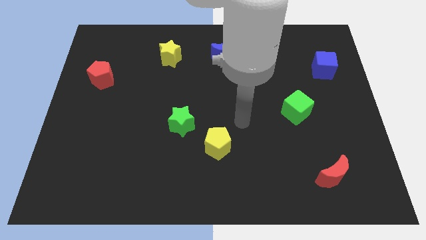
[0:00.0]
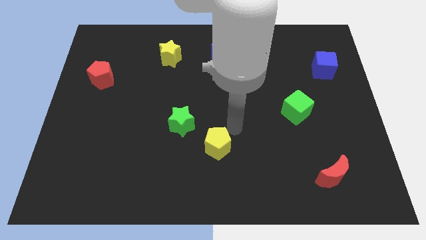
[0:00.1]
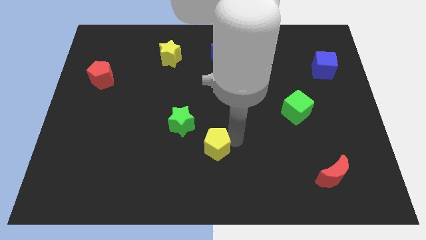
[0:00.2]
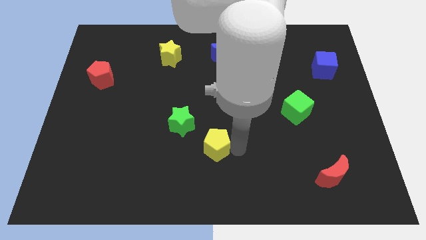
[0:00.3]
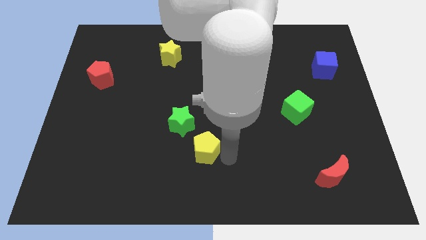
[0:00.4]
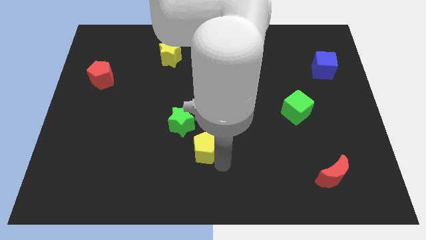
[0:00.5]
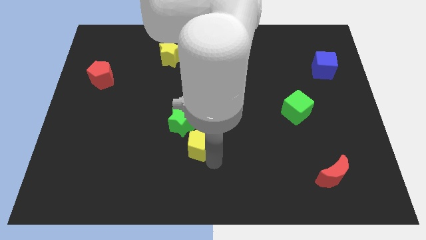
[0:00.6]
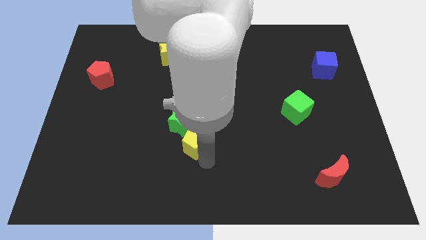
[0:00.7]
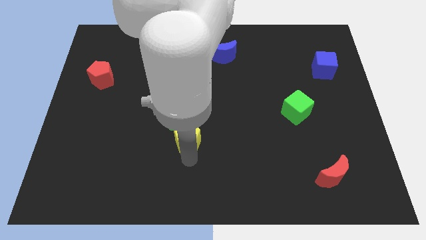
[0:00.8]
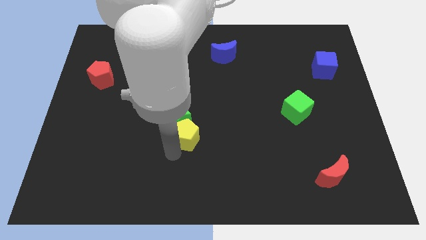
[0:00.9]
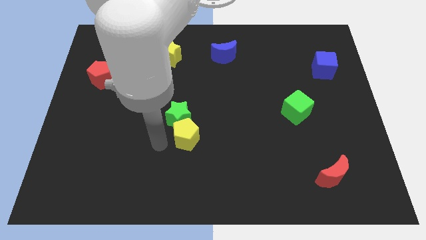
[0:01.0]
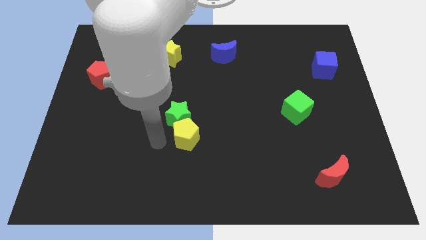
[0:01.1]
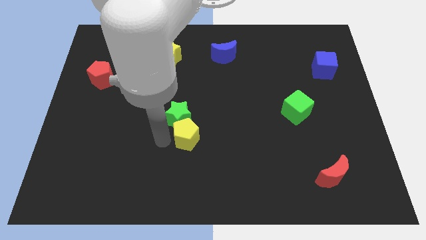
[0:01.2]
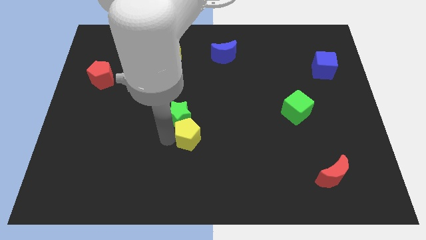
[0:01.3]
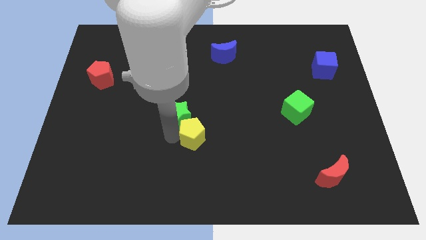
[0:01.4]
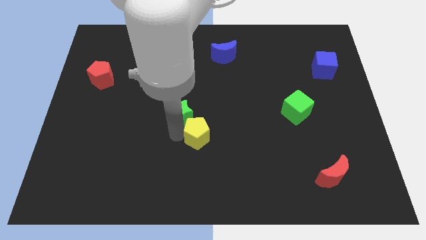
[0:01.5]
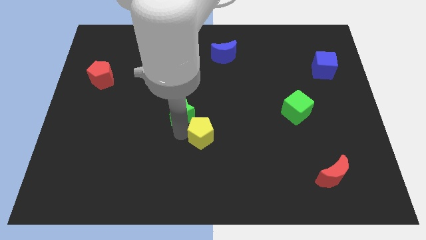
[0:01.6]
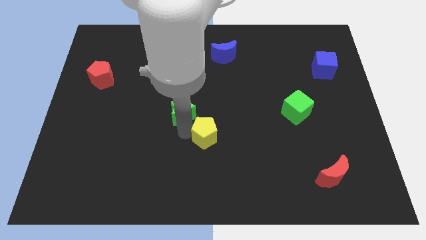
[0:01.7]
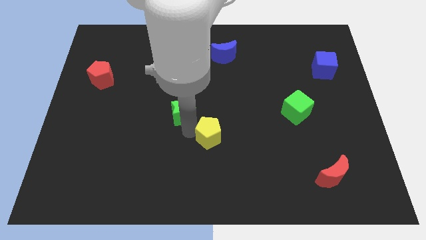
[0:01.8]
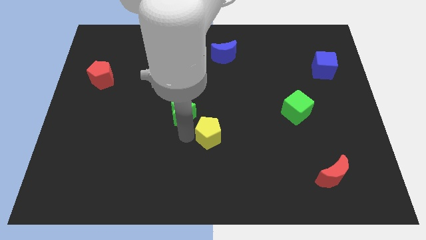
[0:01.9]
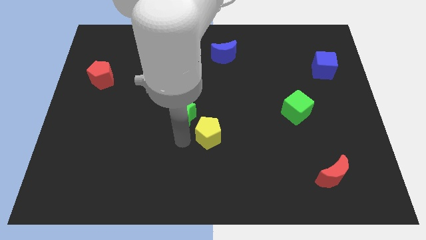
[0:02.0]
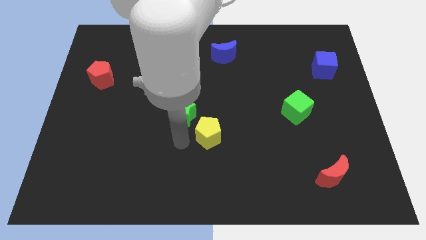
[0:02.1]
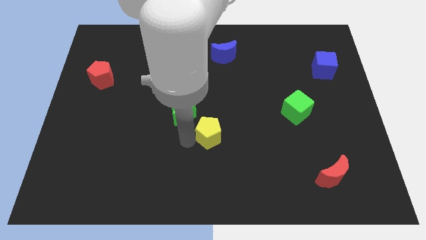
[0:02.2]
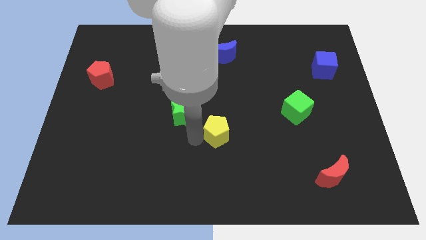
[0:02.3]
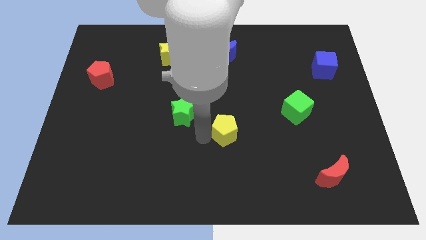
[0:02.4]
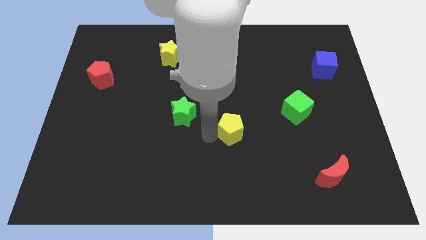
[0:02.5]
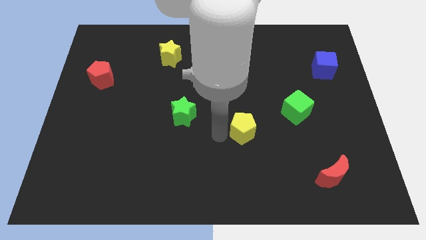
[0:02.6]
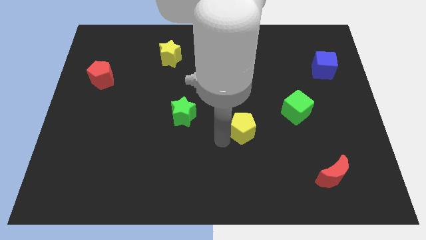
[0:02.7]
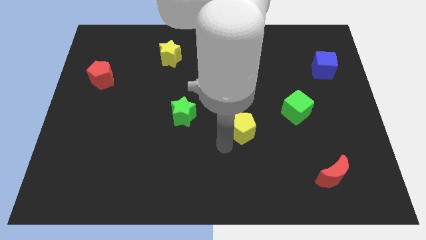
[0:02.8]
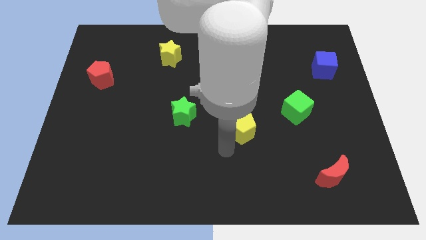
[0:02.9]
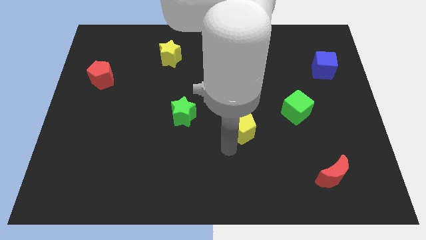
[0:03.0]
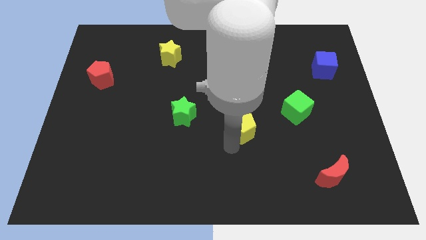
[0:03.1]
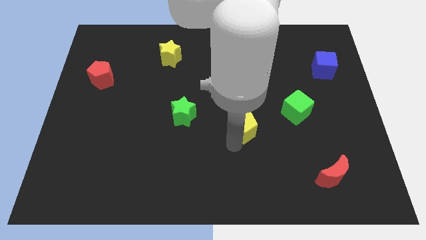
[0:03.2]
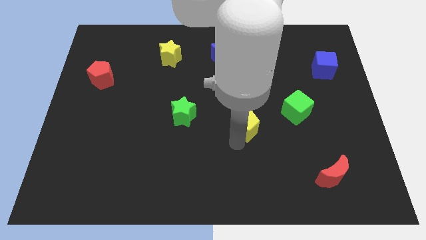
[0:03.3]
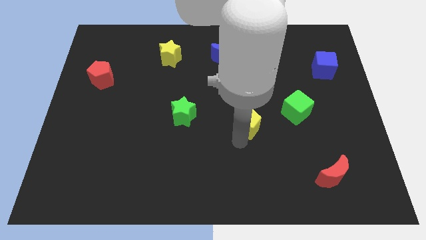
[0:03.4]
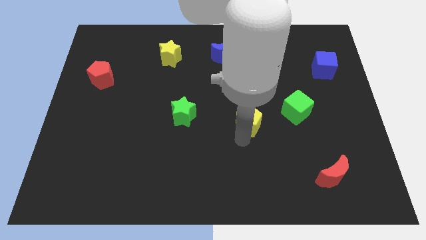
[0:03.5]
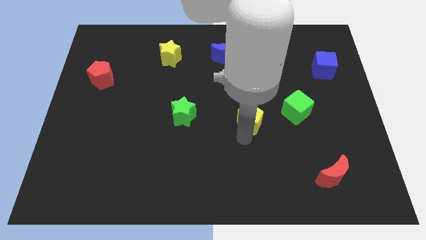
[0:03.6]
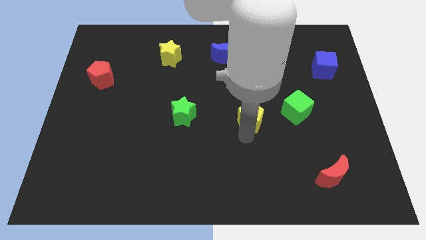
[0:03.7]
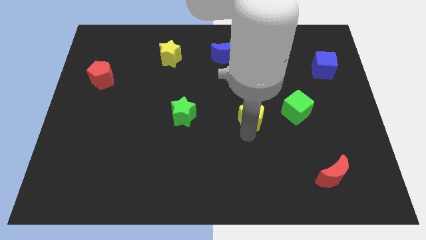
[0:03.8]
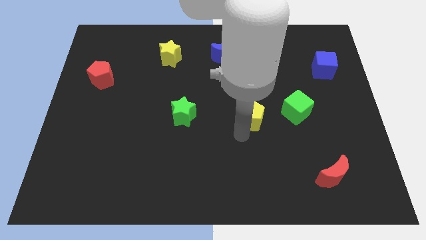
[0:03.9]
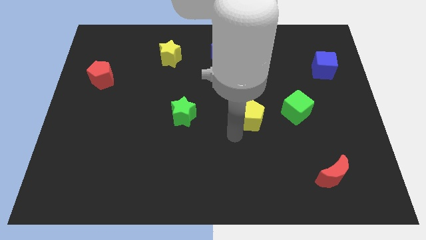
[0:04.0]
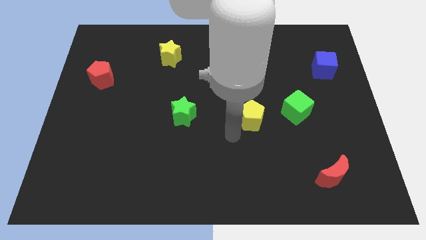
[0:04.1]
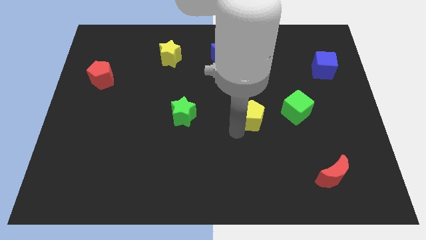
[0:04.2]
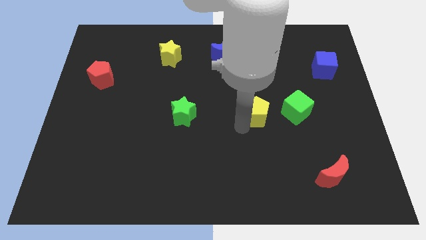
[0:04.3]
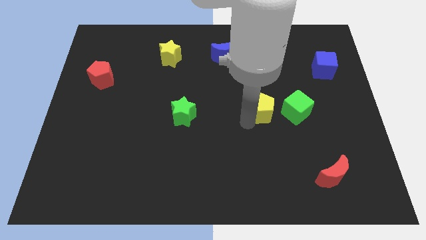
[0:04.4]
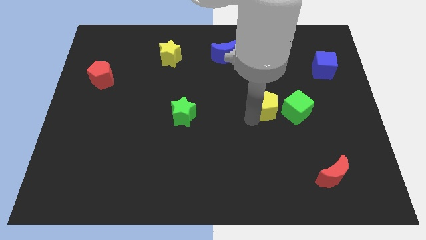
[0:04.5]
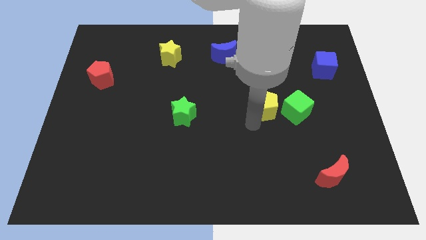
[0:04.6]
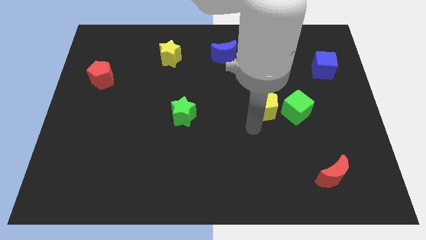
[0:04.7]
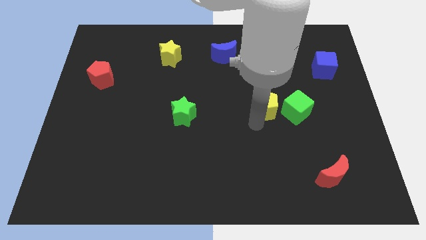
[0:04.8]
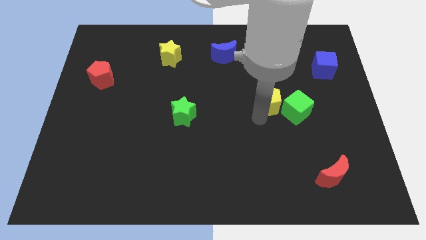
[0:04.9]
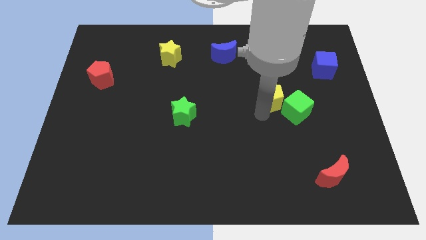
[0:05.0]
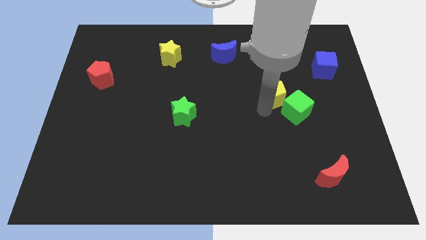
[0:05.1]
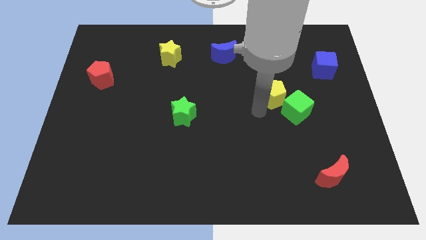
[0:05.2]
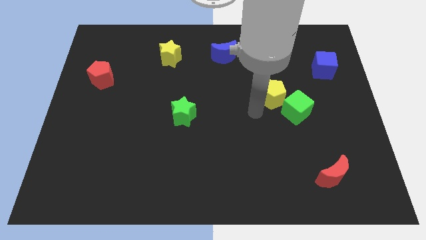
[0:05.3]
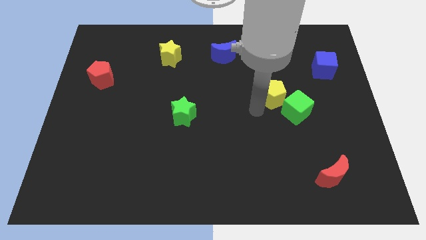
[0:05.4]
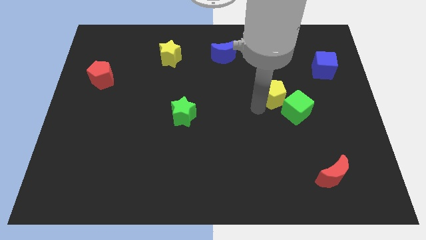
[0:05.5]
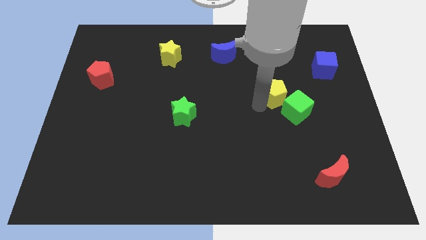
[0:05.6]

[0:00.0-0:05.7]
move the yellow pentagon upwards and right diagonally

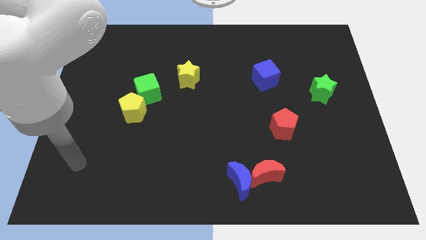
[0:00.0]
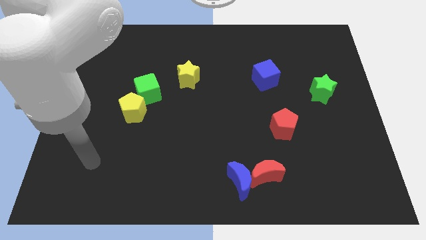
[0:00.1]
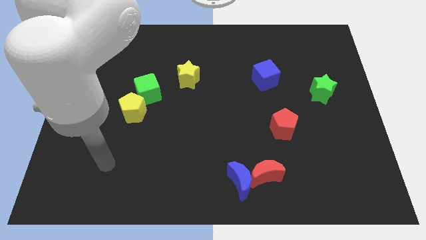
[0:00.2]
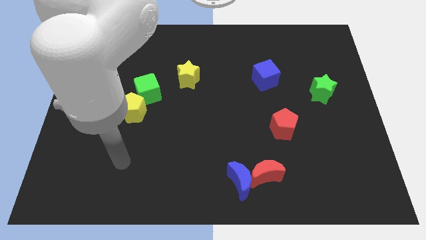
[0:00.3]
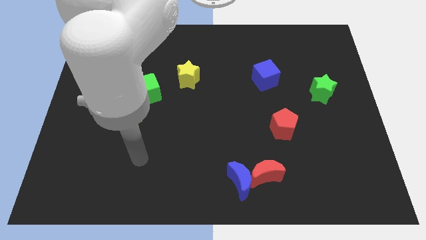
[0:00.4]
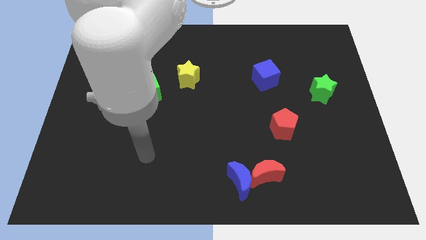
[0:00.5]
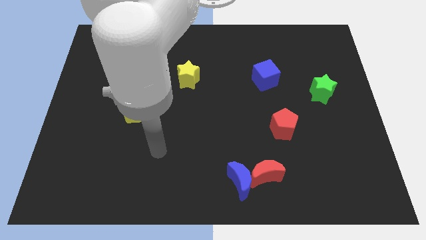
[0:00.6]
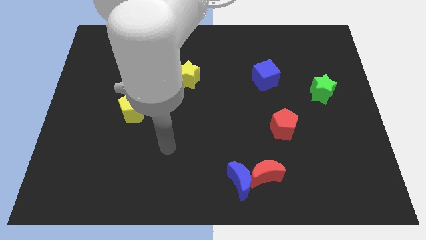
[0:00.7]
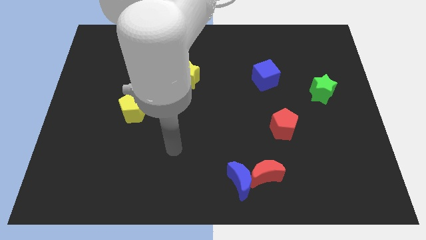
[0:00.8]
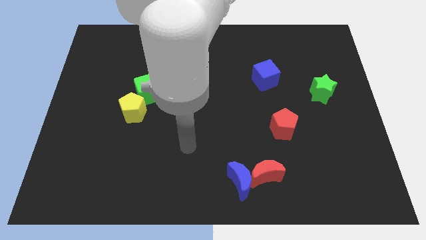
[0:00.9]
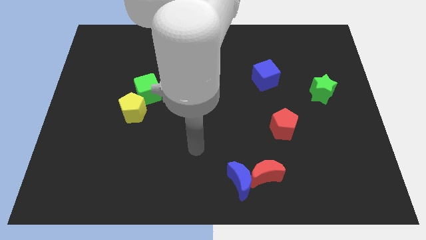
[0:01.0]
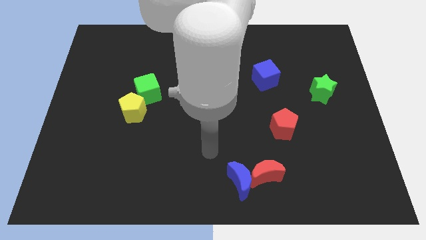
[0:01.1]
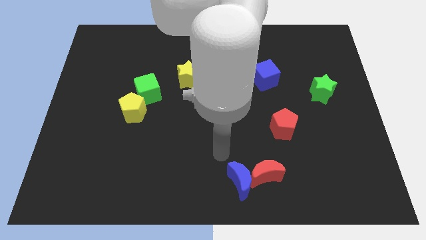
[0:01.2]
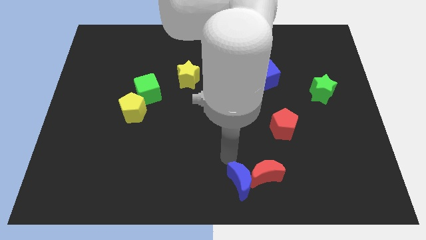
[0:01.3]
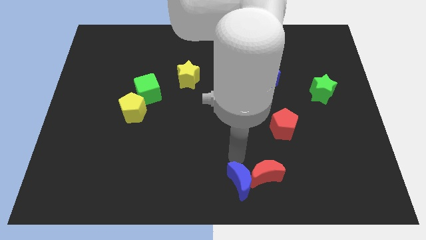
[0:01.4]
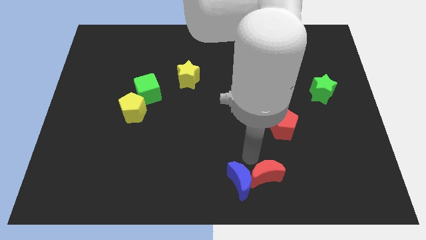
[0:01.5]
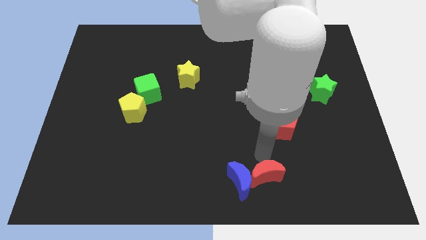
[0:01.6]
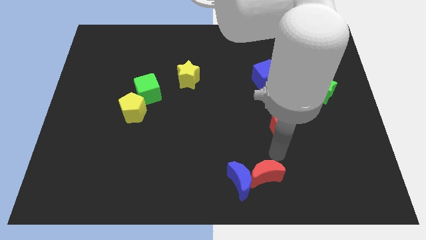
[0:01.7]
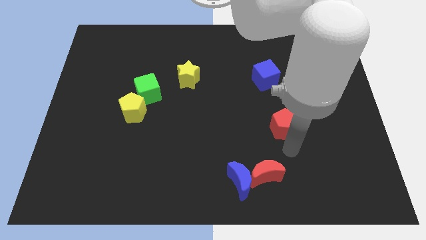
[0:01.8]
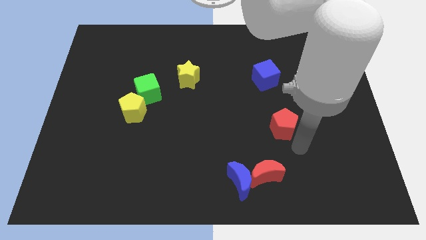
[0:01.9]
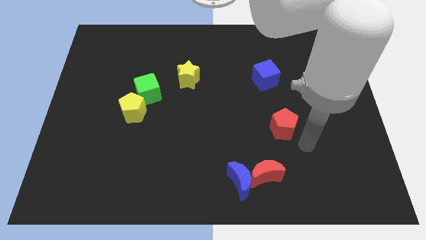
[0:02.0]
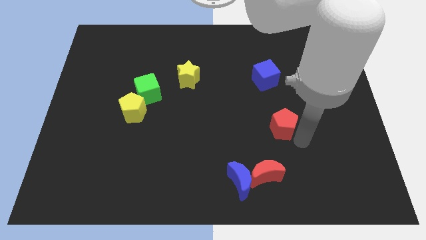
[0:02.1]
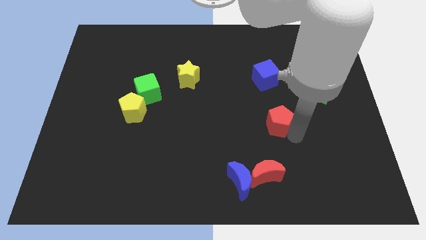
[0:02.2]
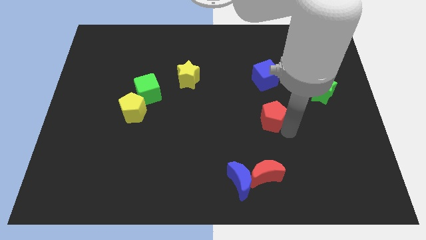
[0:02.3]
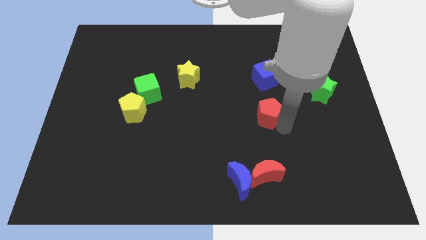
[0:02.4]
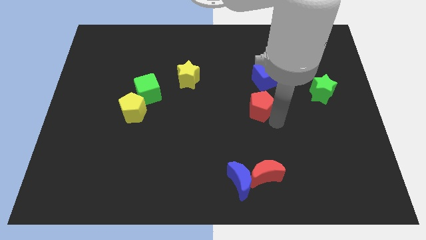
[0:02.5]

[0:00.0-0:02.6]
slide the red pentagon somewhat upwards and then left

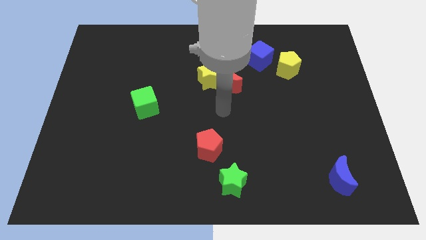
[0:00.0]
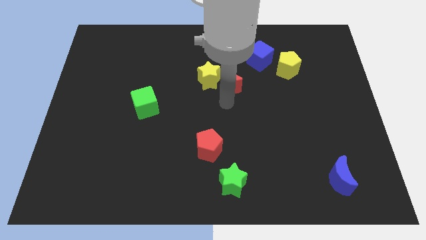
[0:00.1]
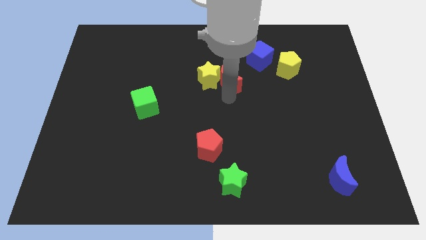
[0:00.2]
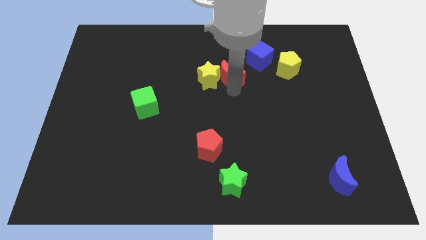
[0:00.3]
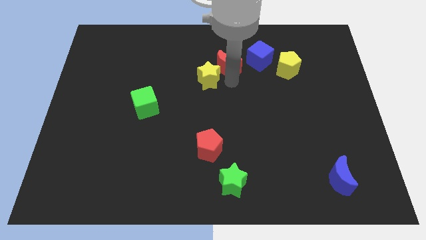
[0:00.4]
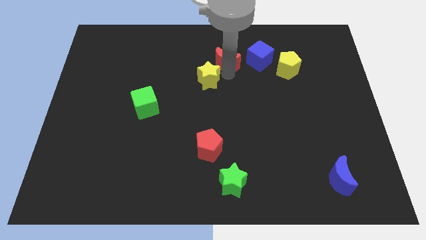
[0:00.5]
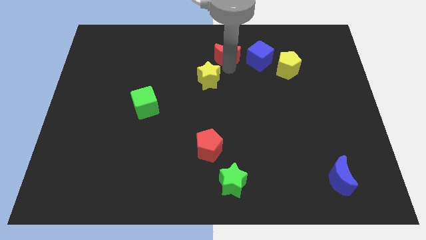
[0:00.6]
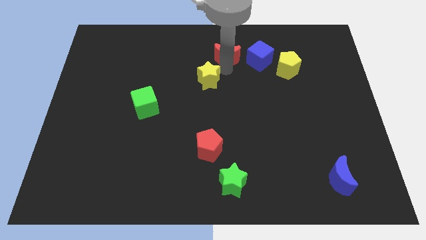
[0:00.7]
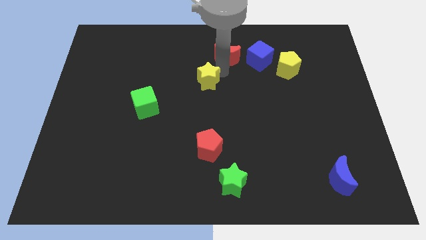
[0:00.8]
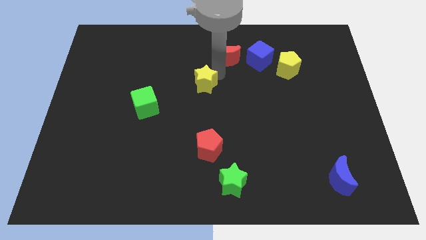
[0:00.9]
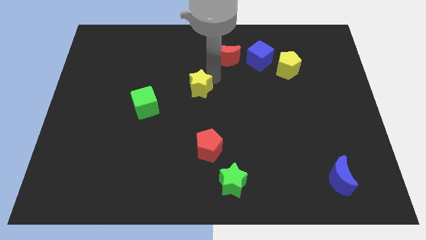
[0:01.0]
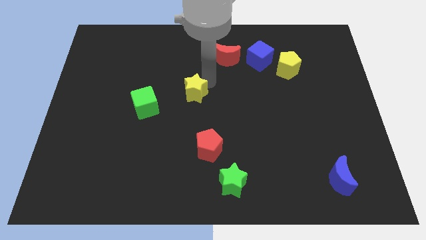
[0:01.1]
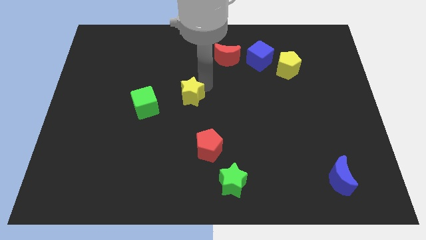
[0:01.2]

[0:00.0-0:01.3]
move the yellow star a little bit down and to the left
